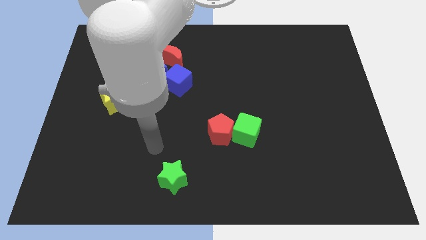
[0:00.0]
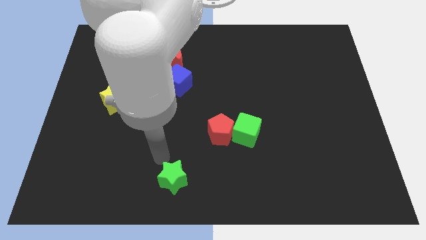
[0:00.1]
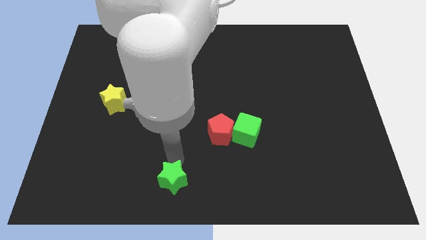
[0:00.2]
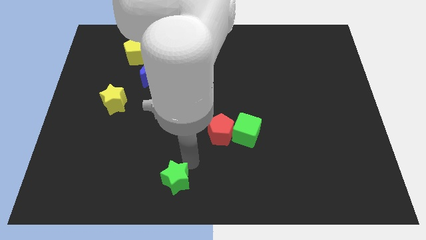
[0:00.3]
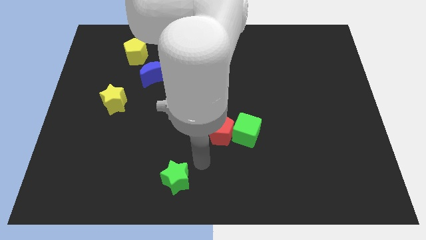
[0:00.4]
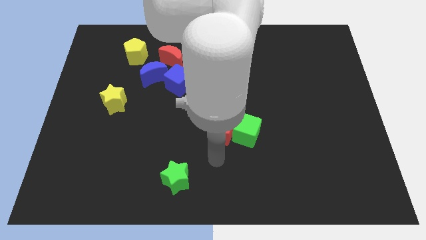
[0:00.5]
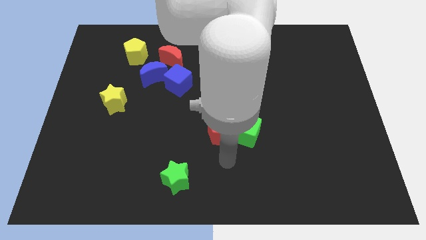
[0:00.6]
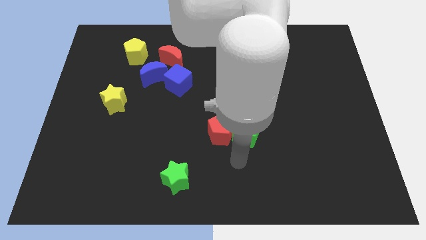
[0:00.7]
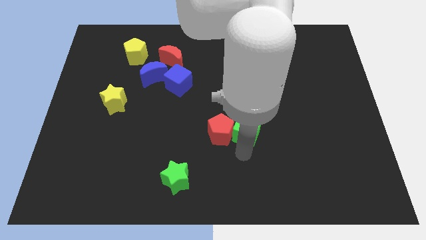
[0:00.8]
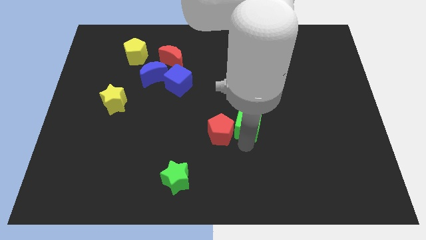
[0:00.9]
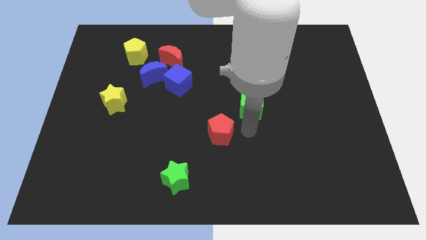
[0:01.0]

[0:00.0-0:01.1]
separate the red pentagon from the green cube

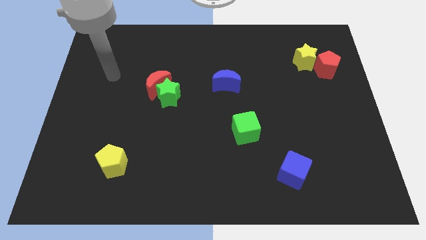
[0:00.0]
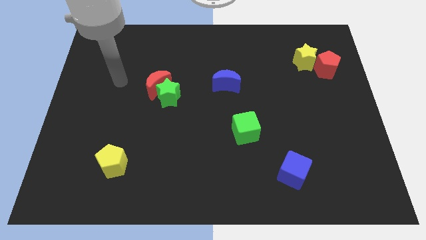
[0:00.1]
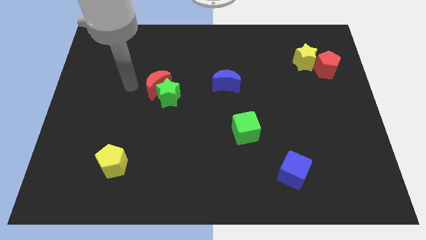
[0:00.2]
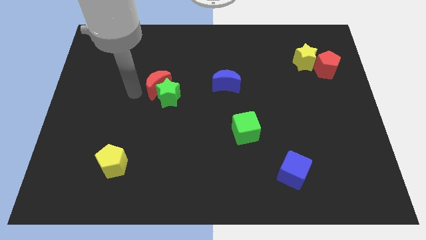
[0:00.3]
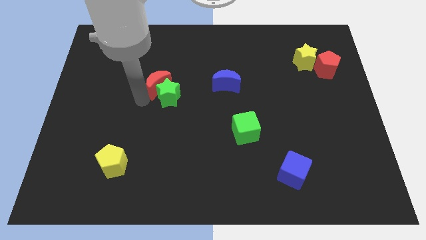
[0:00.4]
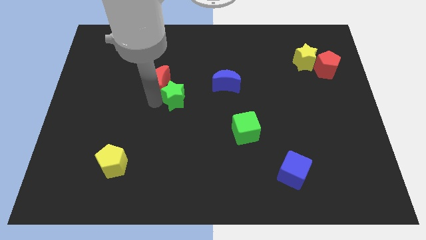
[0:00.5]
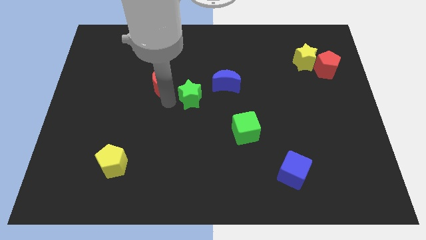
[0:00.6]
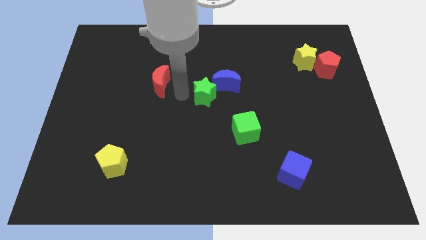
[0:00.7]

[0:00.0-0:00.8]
separate the red moon from the green star

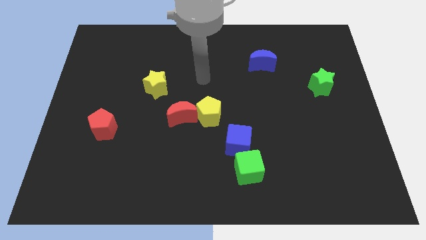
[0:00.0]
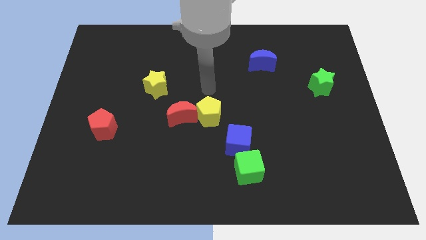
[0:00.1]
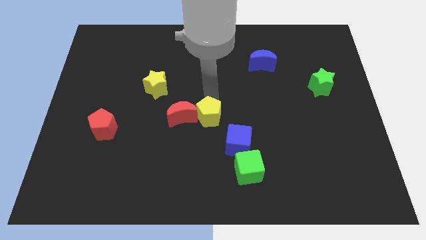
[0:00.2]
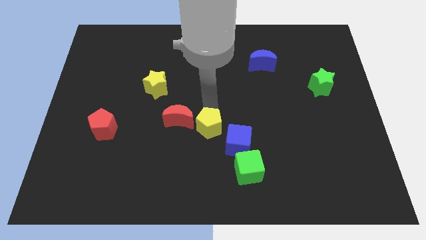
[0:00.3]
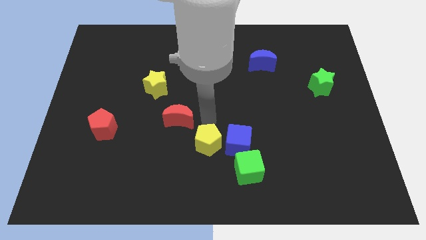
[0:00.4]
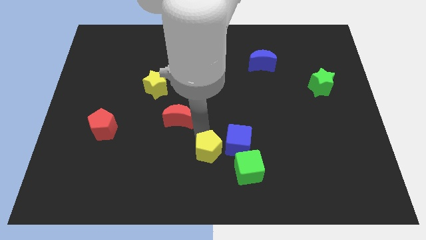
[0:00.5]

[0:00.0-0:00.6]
pull the red moon apart from the yellow pentagon

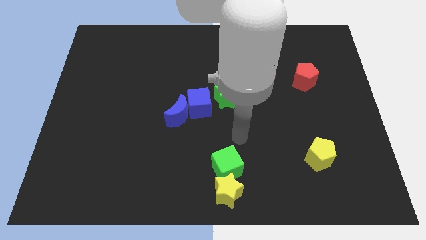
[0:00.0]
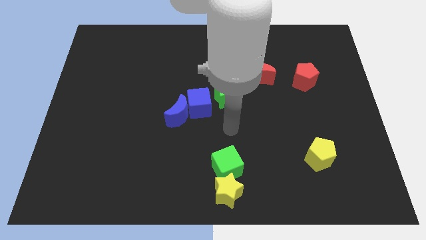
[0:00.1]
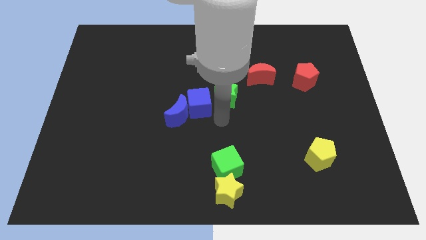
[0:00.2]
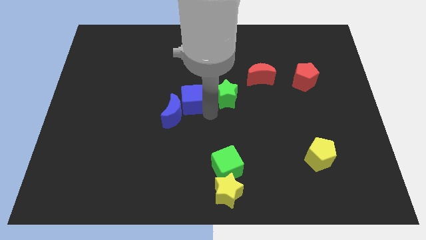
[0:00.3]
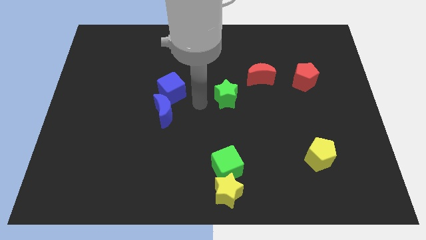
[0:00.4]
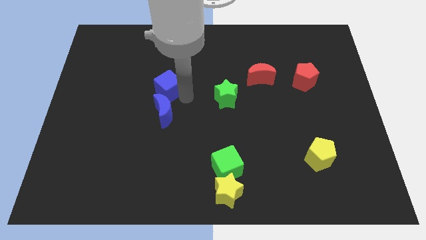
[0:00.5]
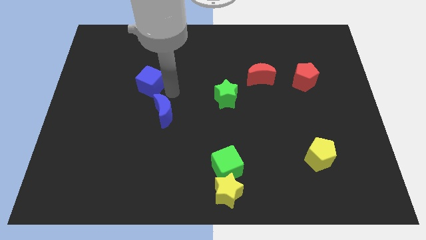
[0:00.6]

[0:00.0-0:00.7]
separate the blue moon from the blue cube

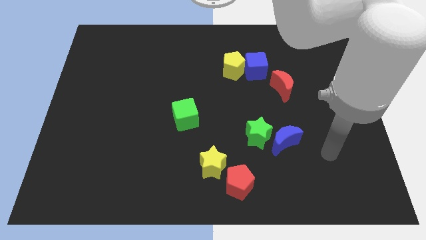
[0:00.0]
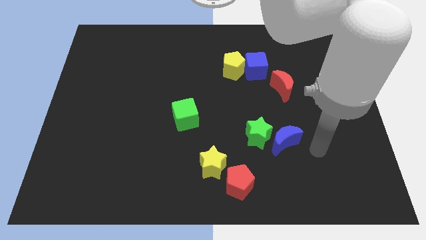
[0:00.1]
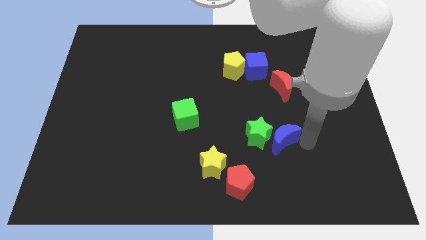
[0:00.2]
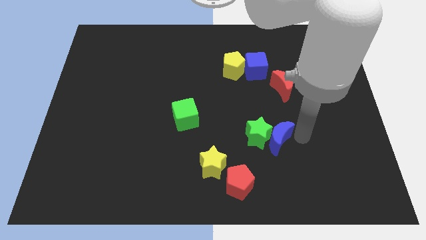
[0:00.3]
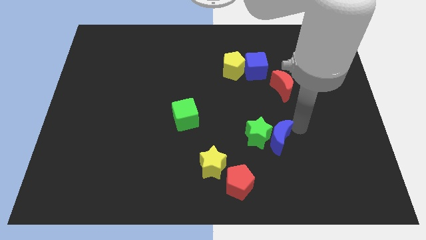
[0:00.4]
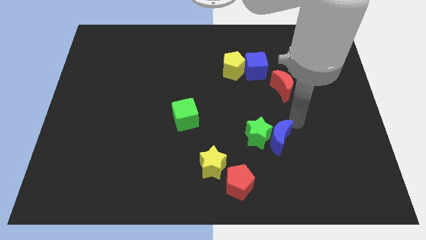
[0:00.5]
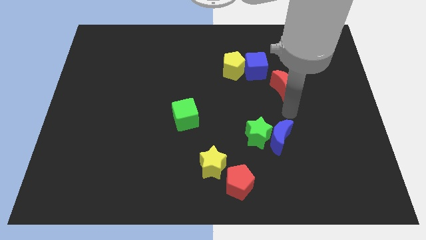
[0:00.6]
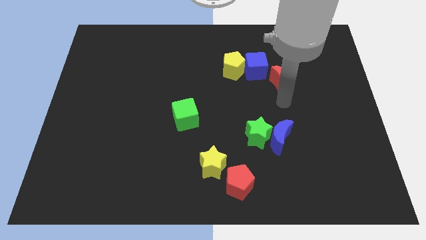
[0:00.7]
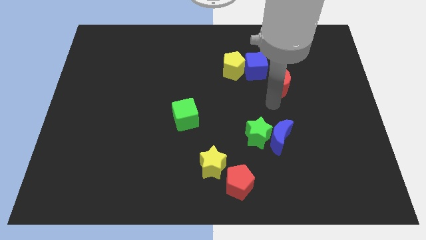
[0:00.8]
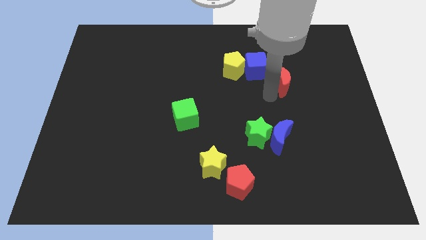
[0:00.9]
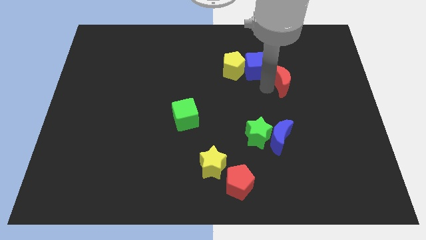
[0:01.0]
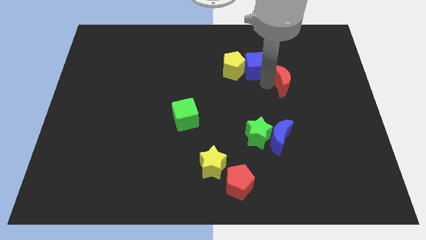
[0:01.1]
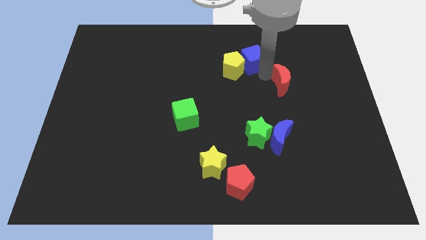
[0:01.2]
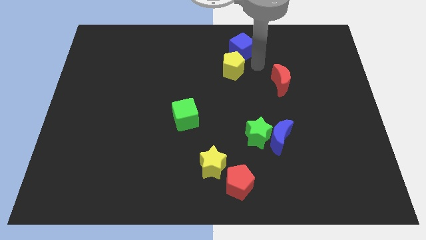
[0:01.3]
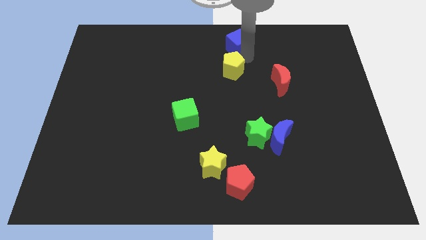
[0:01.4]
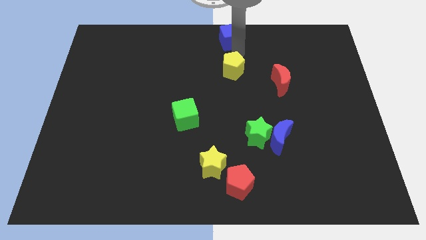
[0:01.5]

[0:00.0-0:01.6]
separate the yellow pentagon from the blue cube

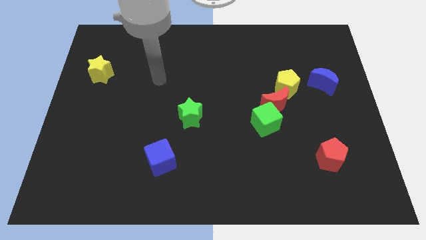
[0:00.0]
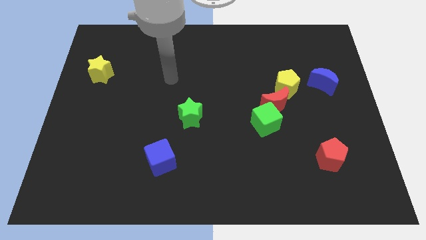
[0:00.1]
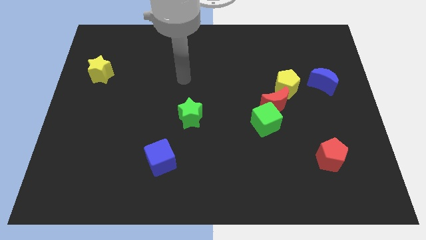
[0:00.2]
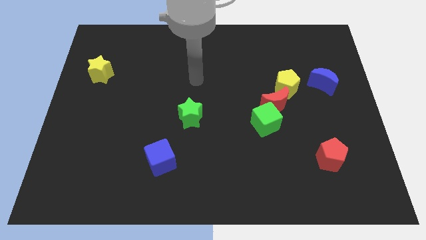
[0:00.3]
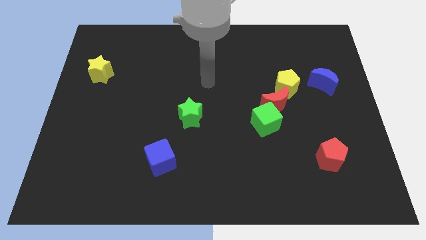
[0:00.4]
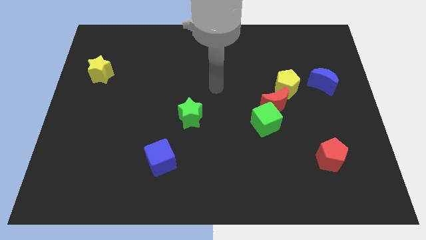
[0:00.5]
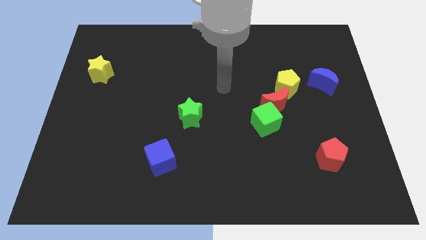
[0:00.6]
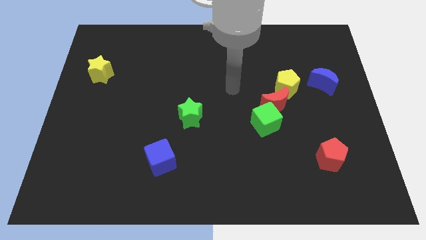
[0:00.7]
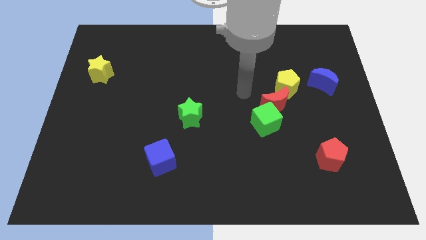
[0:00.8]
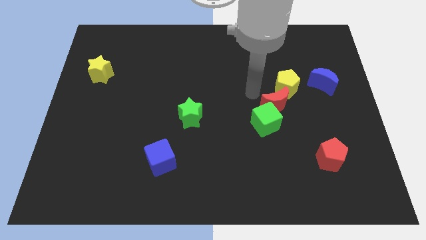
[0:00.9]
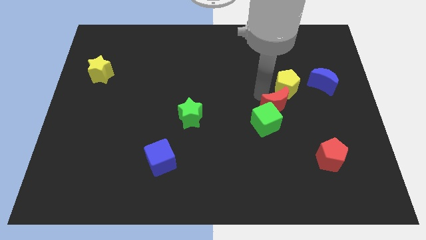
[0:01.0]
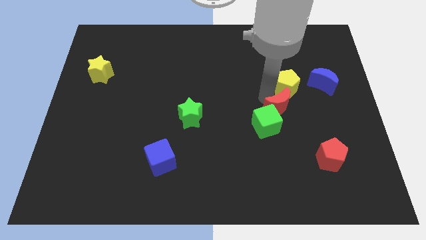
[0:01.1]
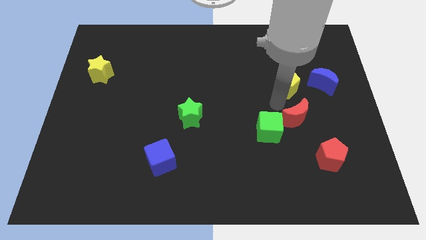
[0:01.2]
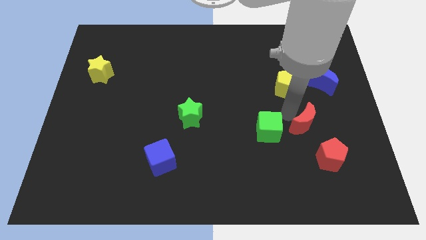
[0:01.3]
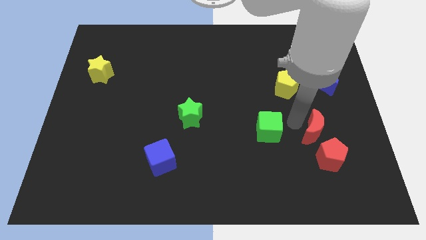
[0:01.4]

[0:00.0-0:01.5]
move the green cube away from the red moon

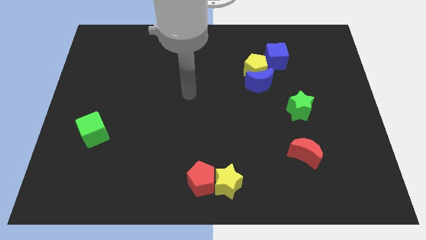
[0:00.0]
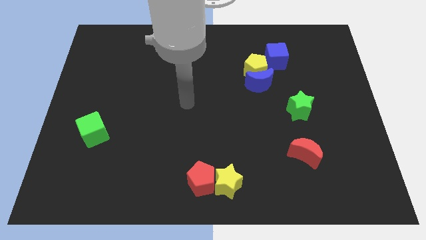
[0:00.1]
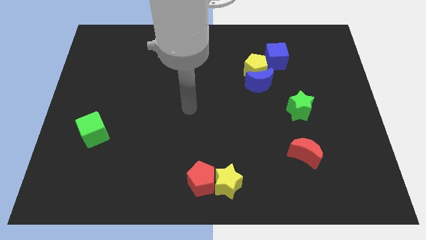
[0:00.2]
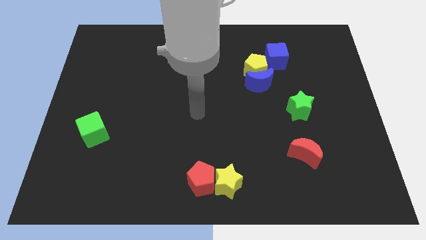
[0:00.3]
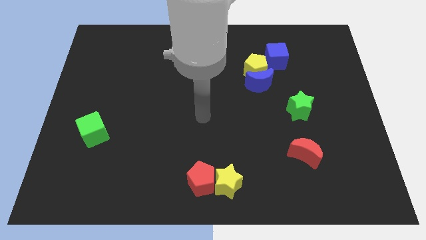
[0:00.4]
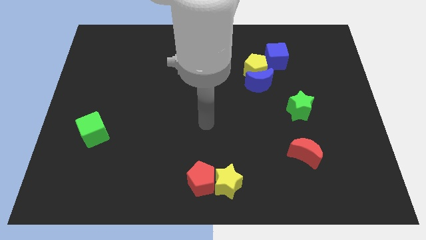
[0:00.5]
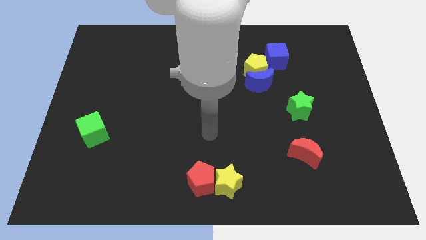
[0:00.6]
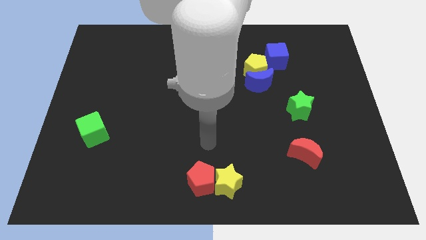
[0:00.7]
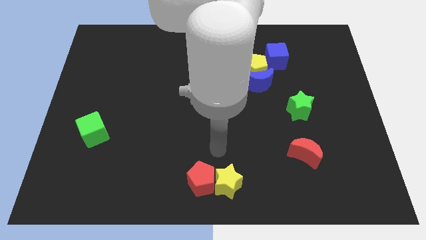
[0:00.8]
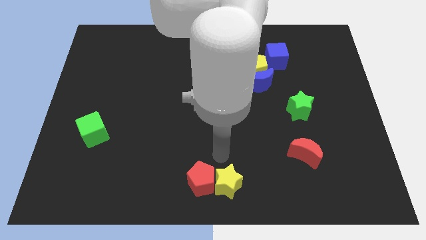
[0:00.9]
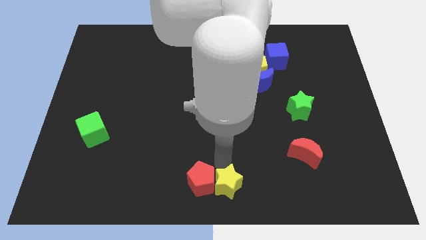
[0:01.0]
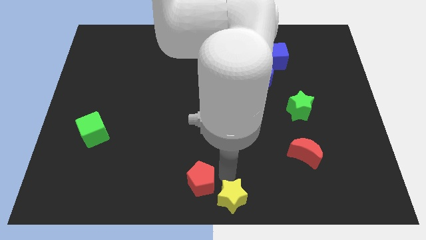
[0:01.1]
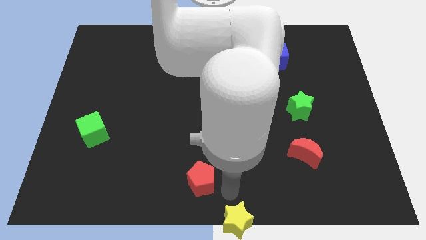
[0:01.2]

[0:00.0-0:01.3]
move the red pentagon away from the yellow star

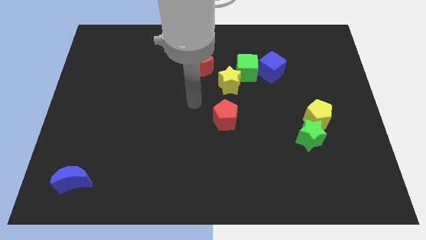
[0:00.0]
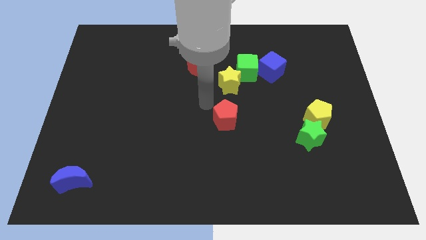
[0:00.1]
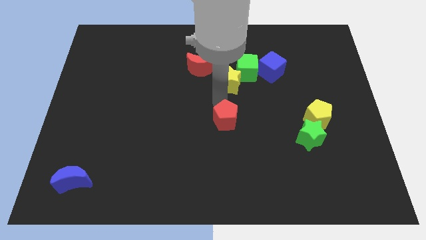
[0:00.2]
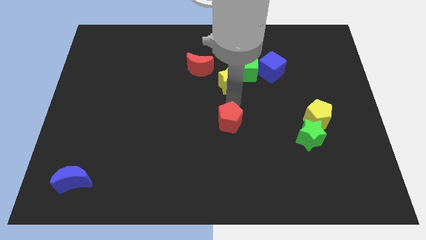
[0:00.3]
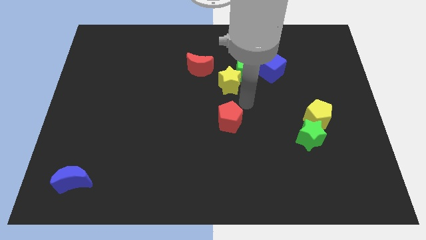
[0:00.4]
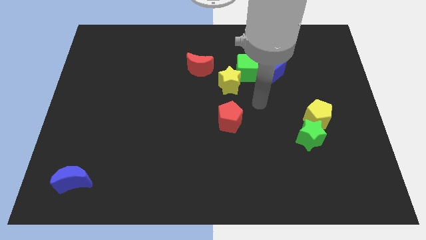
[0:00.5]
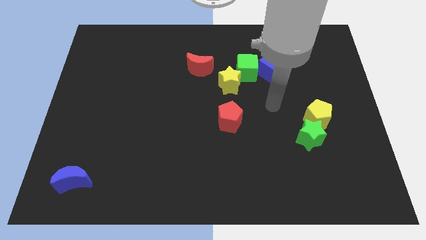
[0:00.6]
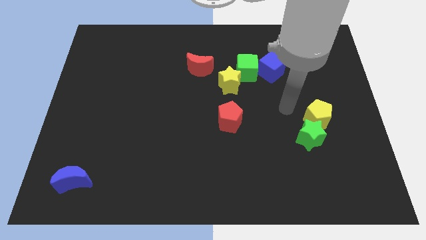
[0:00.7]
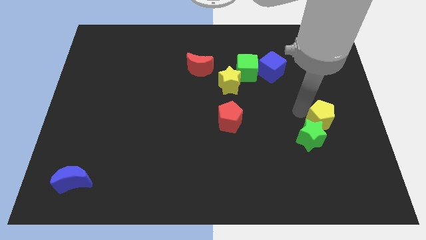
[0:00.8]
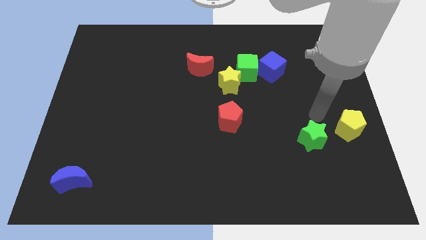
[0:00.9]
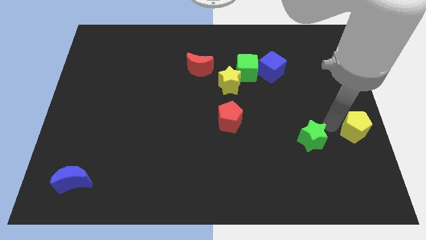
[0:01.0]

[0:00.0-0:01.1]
separate the green star from the yellow pentagon

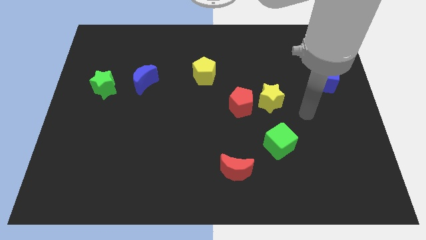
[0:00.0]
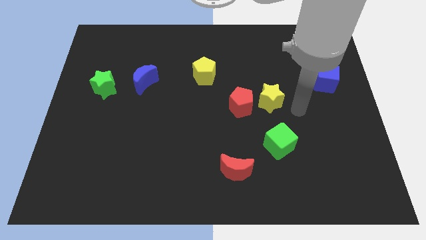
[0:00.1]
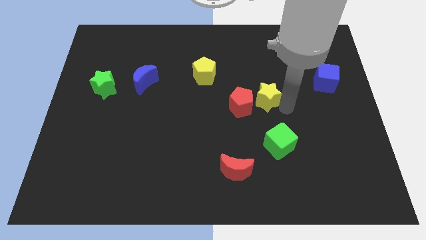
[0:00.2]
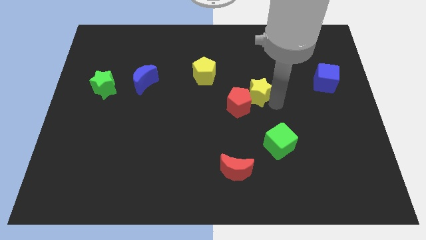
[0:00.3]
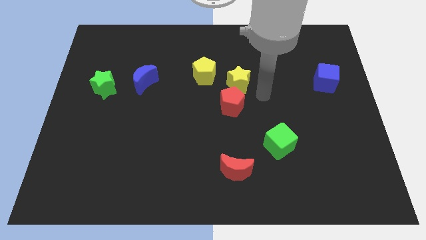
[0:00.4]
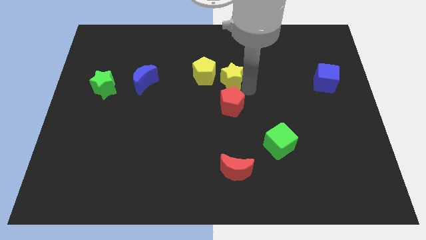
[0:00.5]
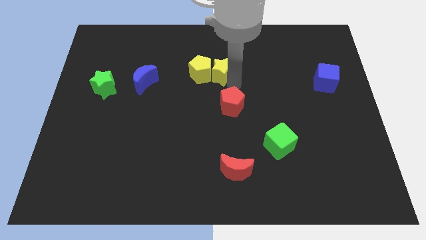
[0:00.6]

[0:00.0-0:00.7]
separate the red pentagon from the yellow star
